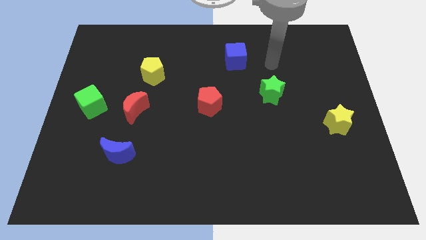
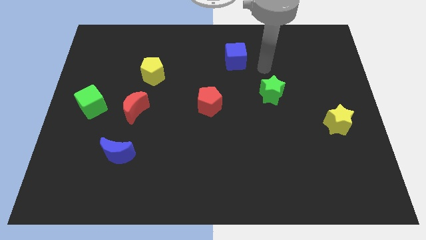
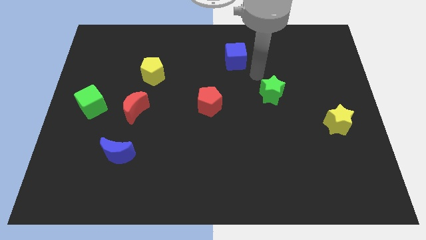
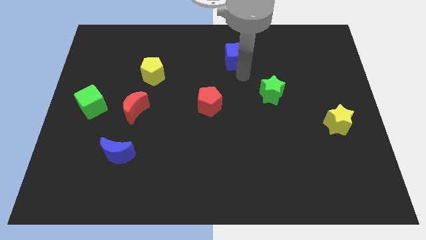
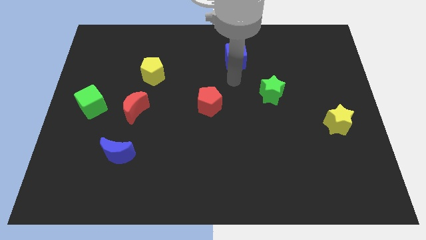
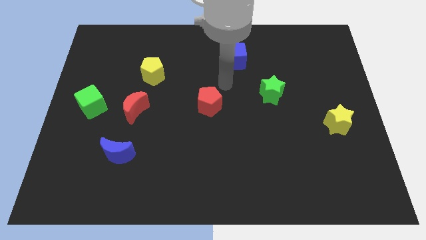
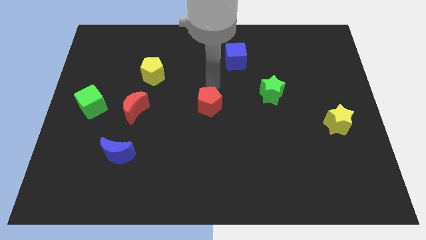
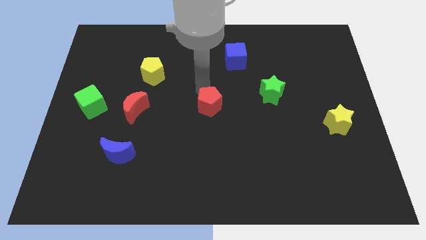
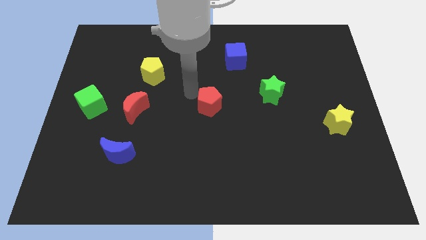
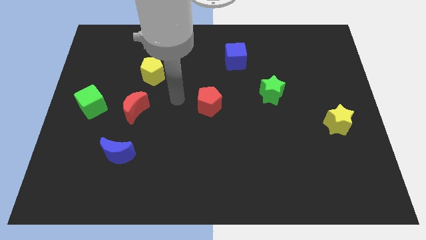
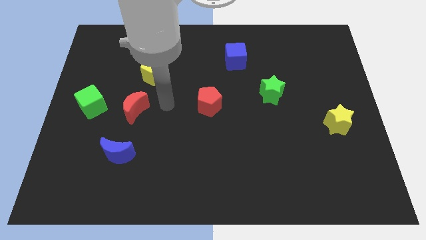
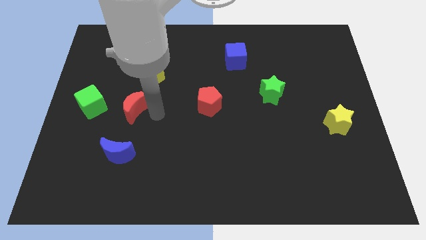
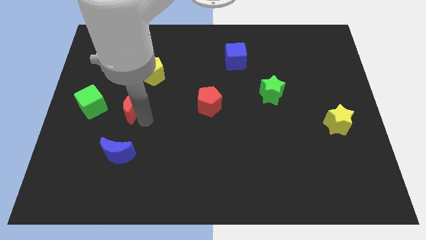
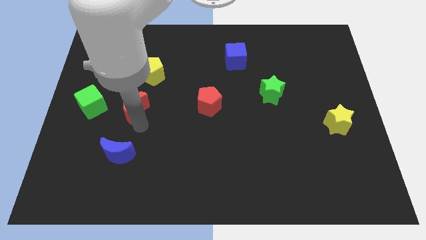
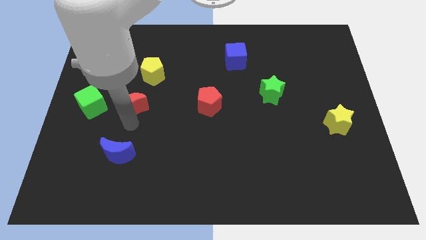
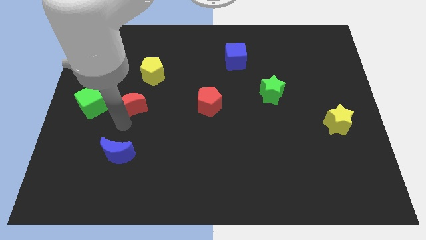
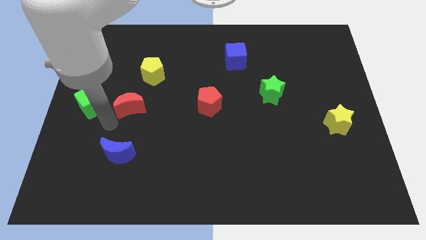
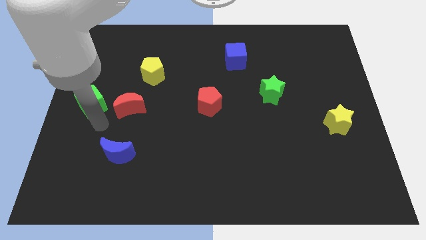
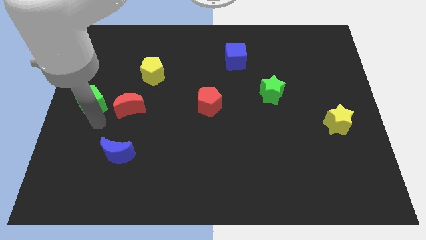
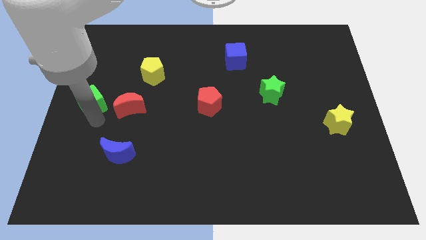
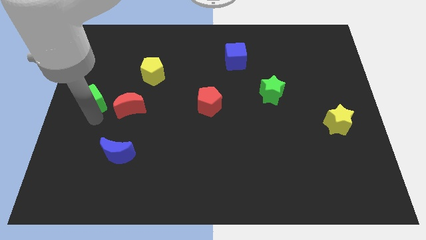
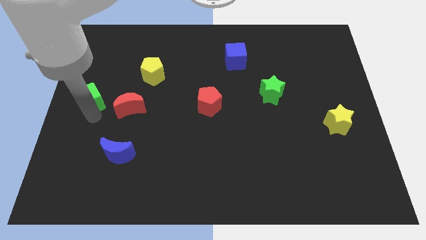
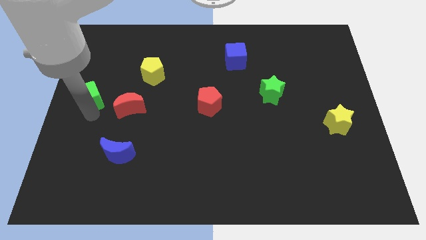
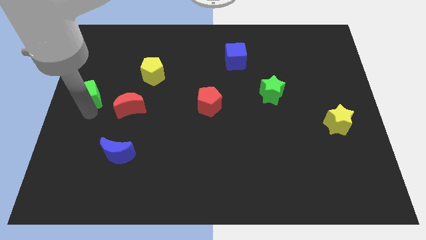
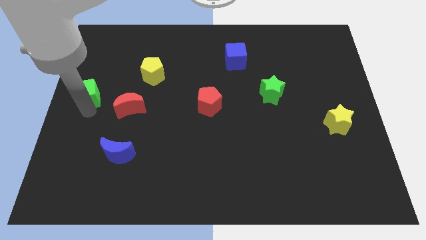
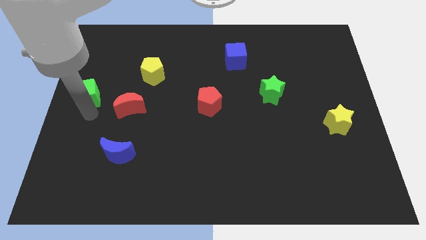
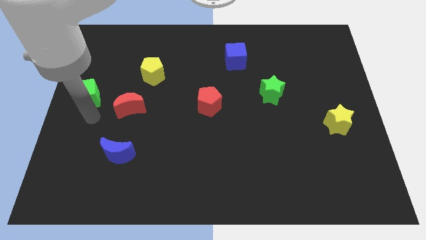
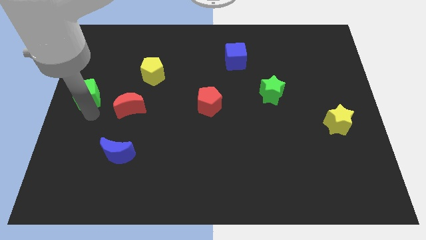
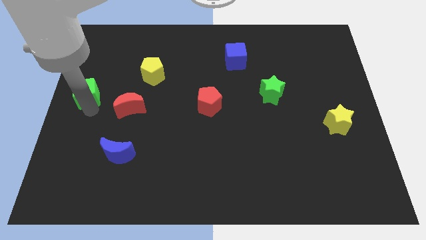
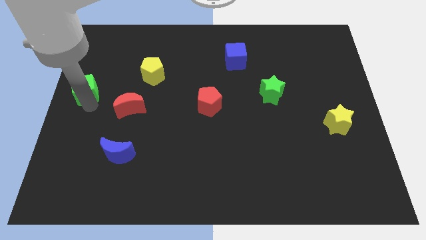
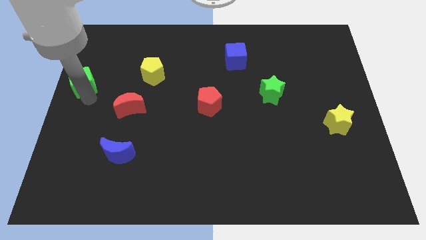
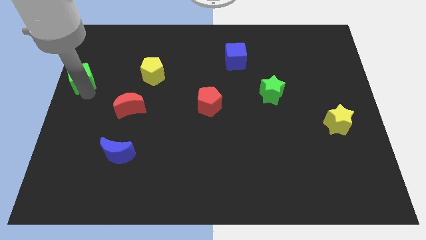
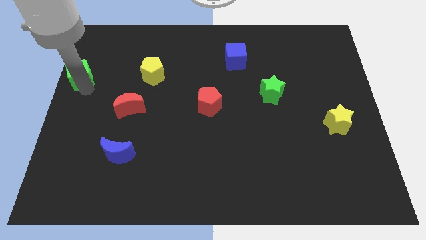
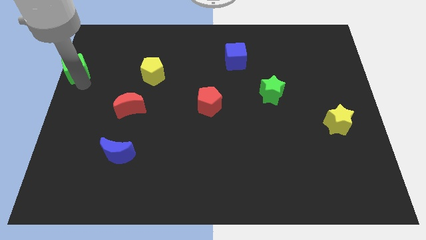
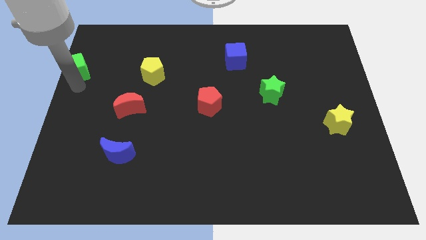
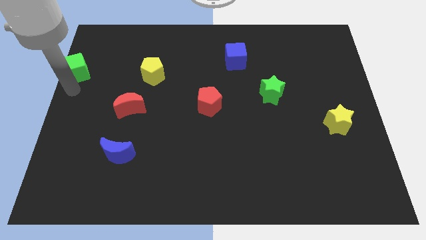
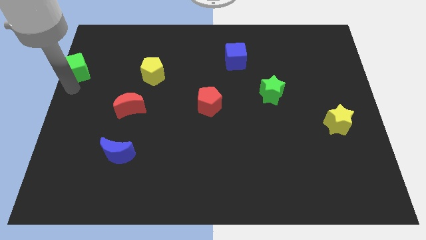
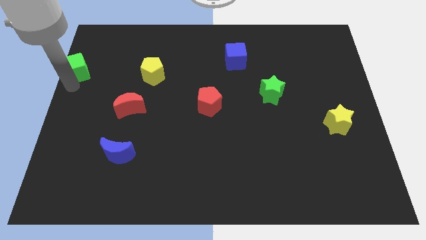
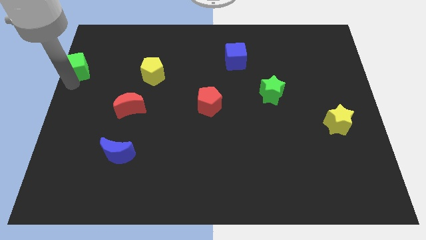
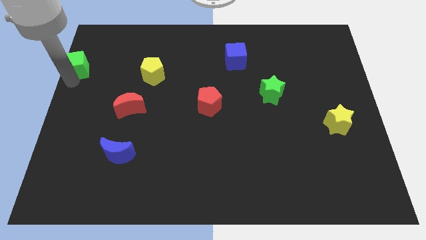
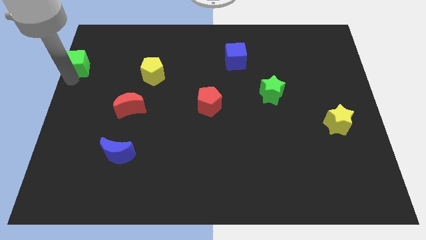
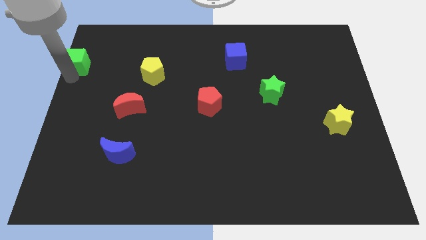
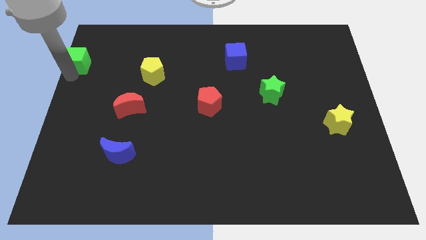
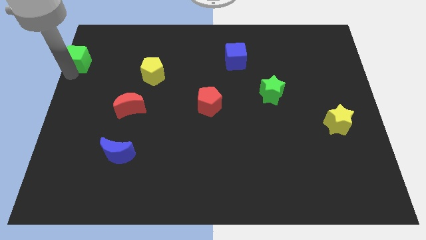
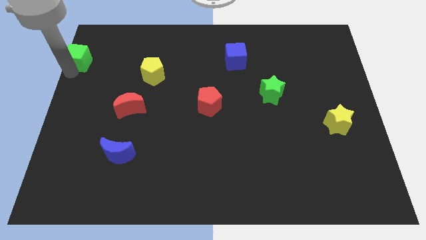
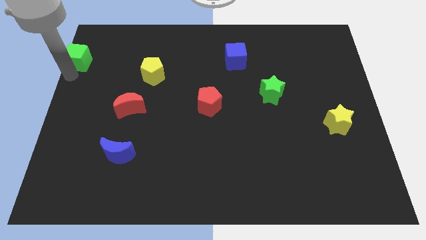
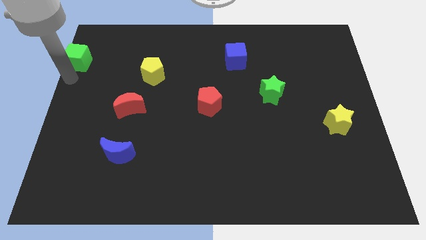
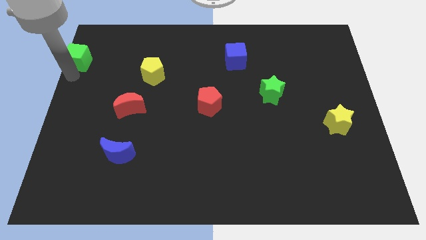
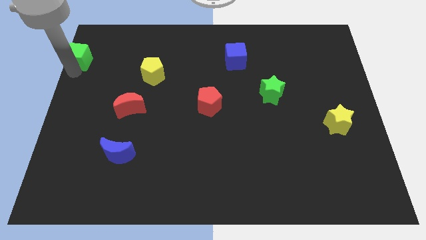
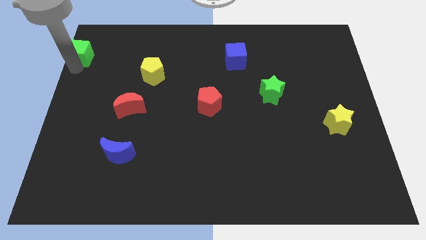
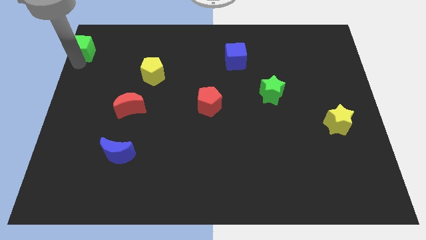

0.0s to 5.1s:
slide the green cube to the top left of the board

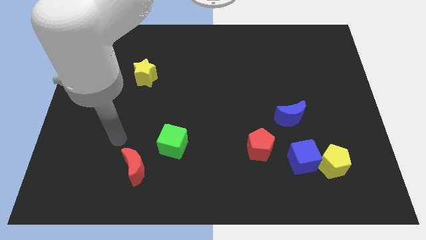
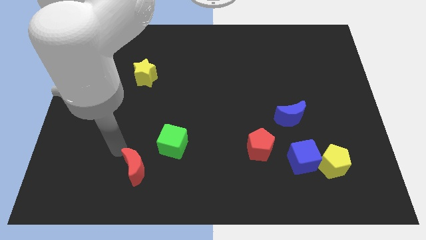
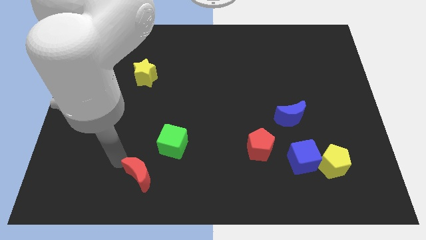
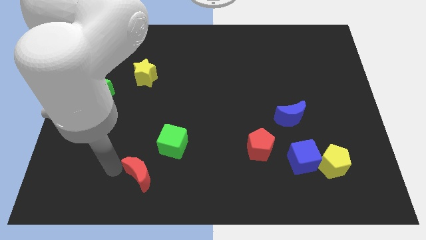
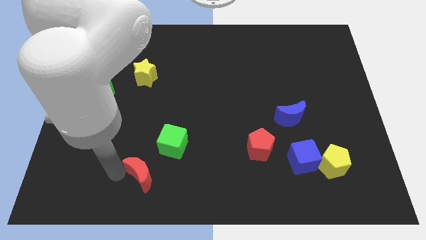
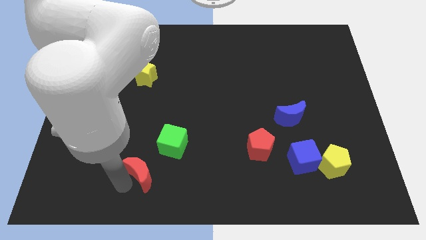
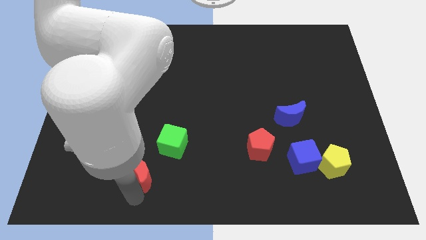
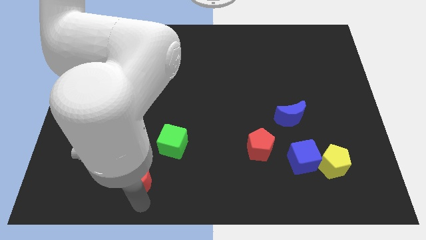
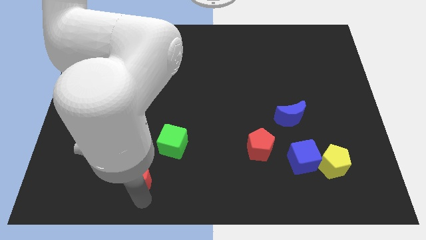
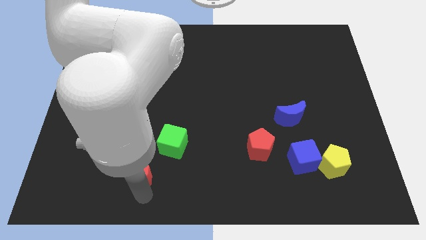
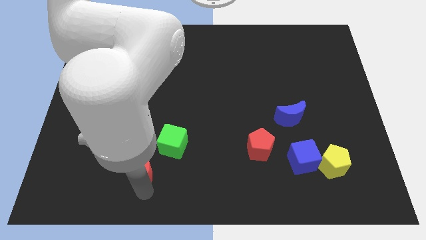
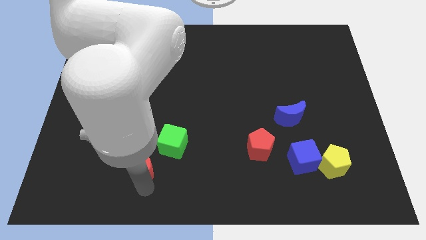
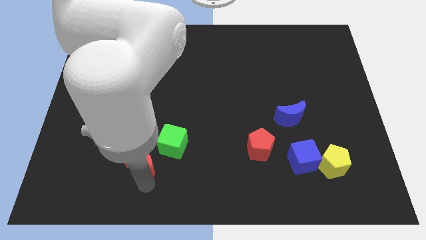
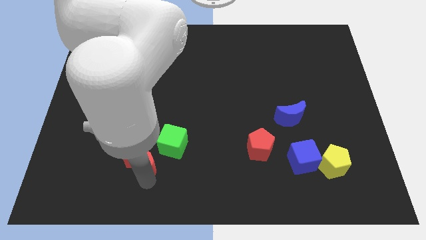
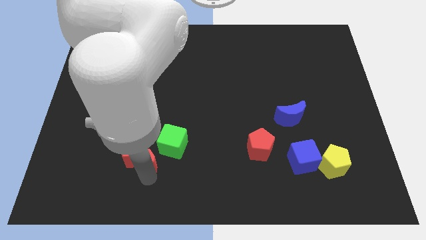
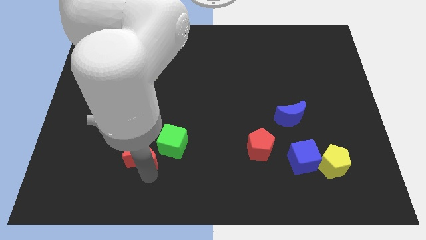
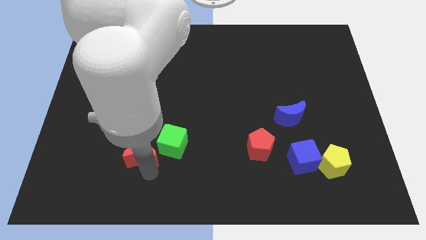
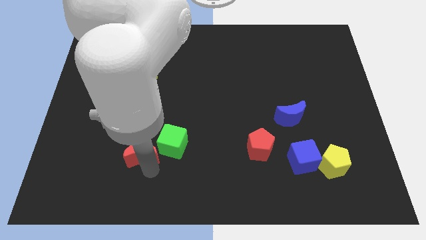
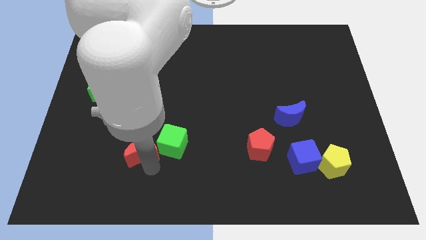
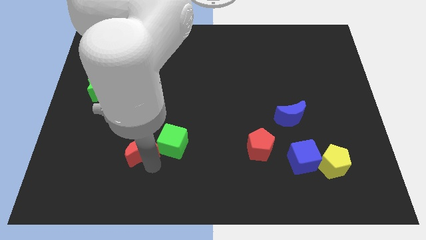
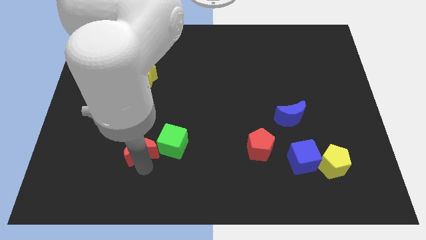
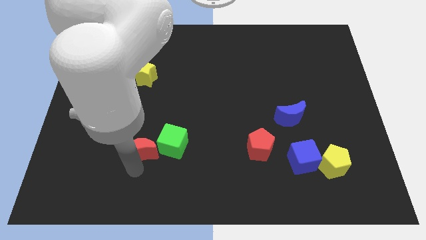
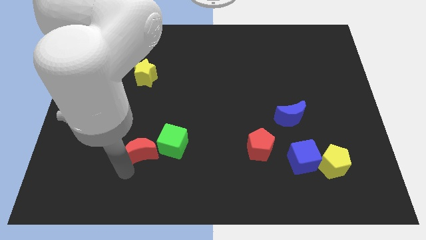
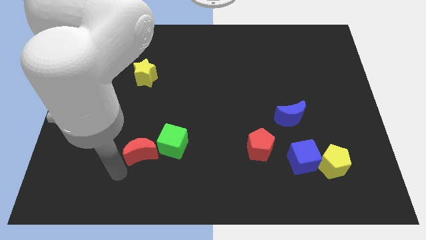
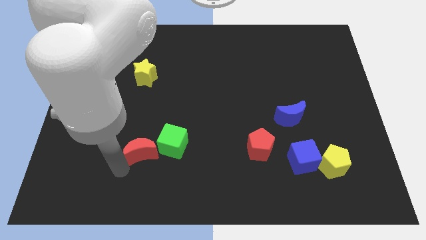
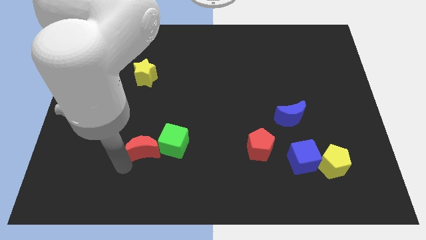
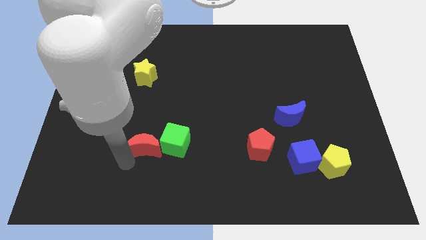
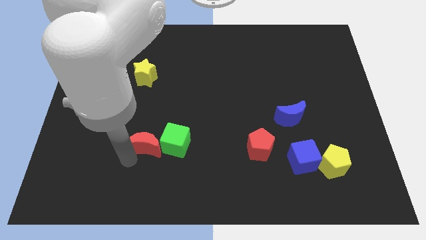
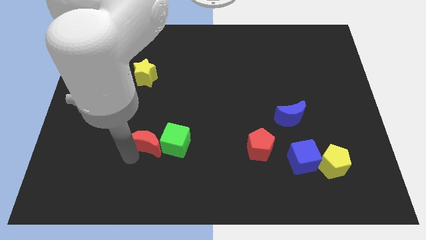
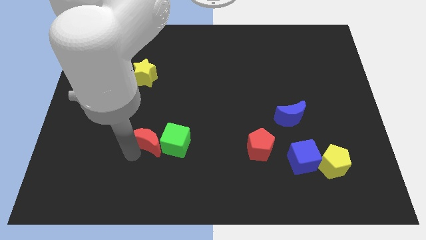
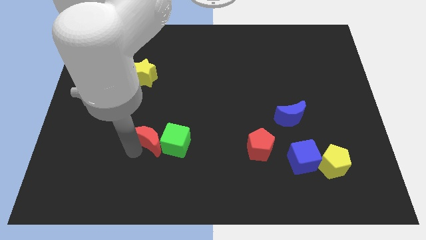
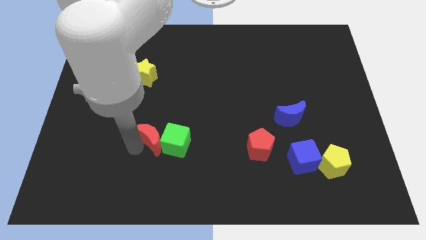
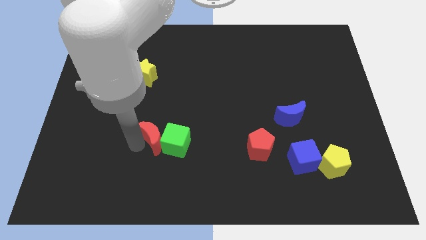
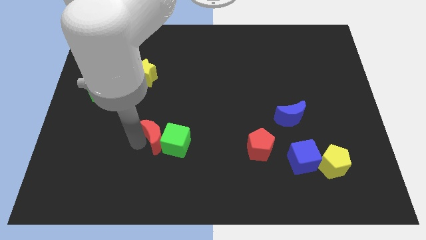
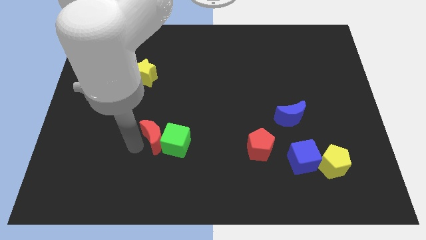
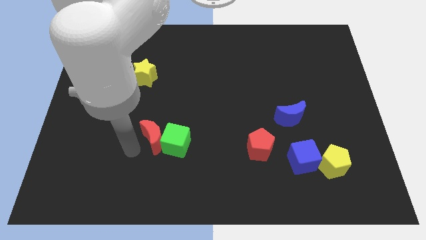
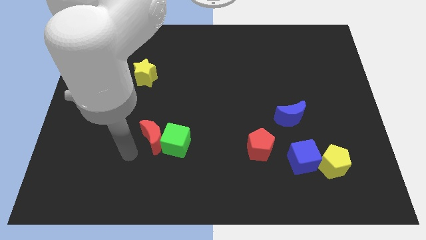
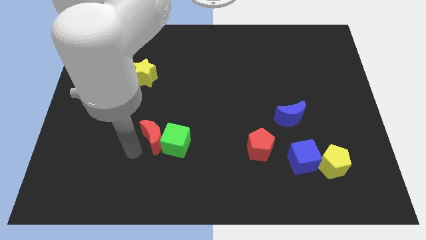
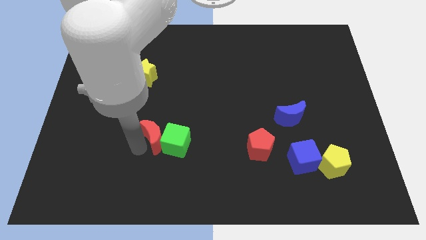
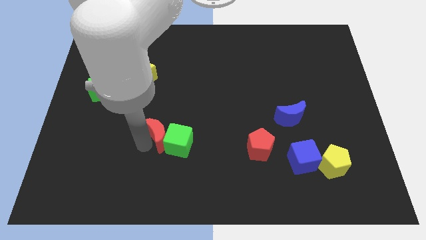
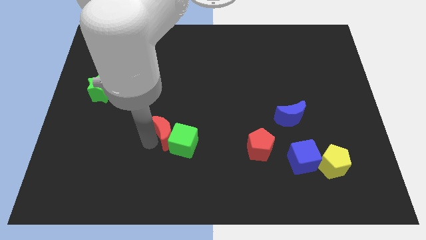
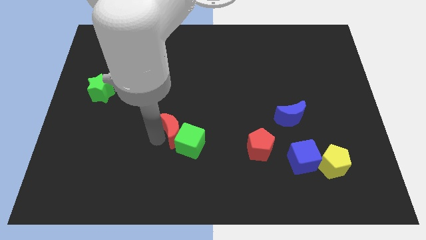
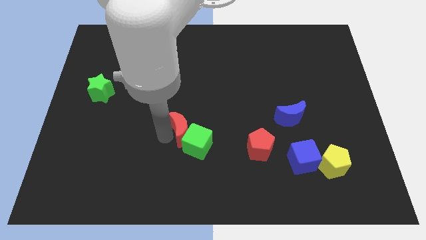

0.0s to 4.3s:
move the red moon to the center
